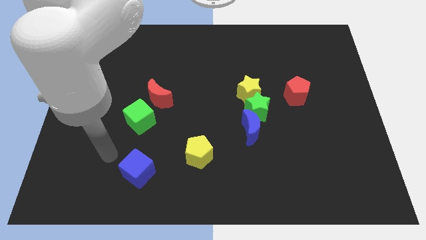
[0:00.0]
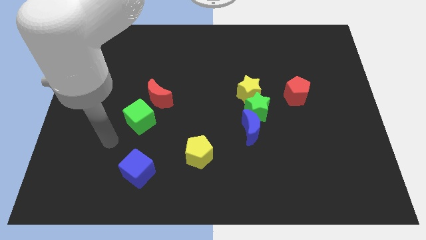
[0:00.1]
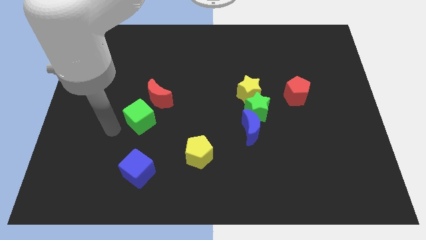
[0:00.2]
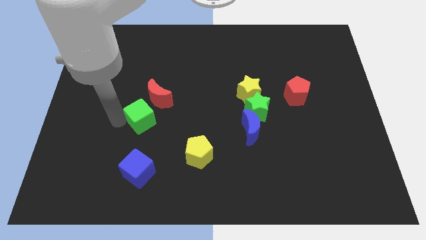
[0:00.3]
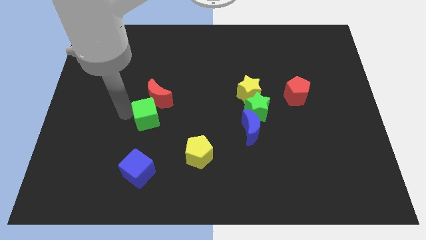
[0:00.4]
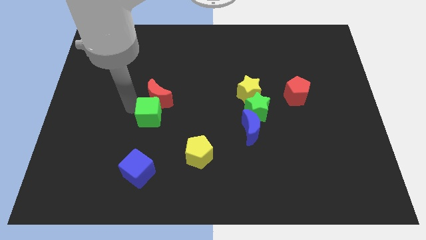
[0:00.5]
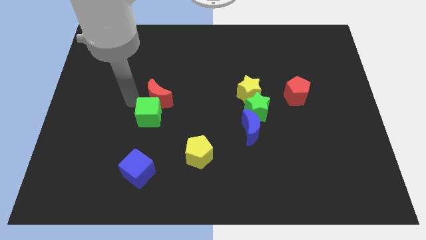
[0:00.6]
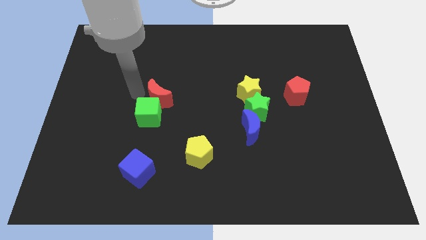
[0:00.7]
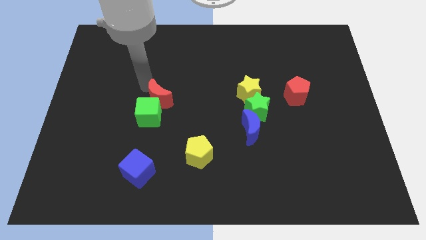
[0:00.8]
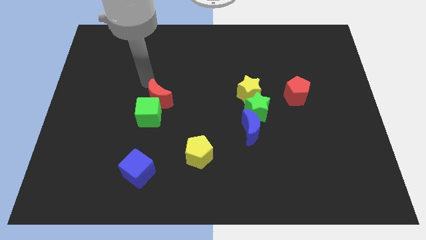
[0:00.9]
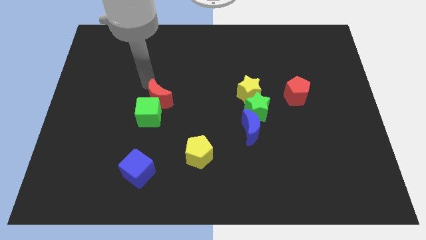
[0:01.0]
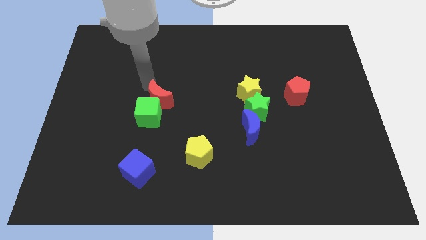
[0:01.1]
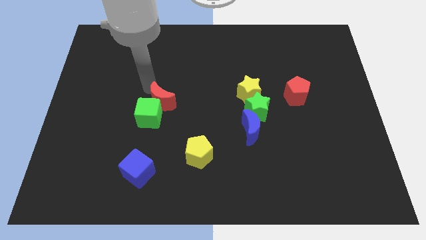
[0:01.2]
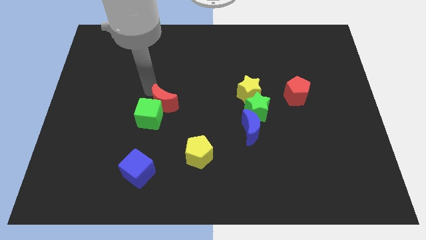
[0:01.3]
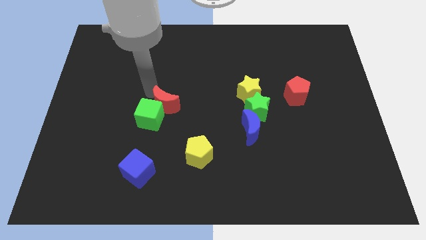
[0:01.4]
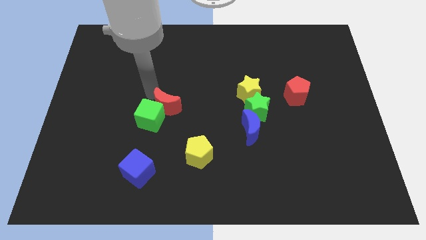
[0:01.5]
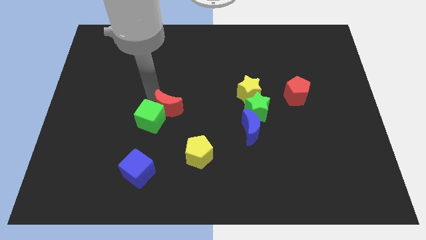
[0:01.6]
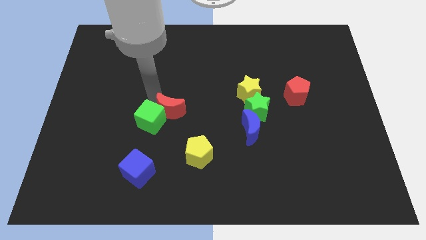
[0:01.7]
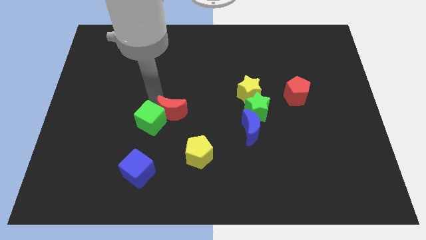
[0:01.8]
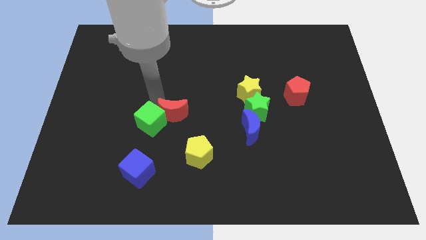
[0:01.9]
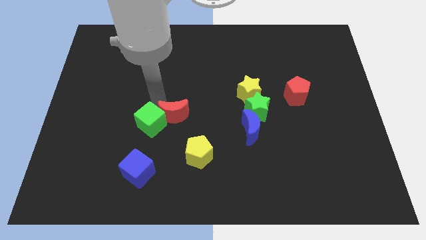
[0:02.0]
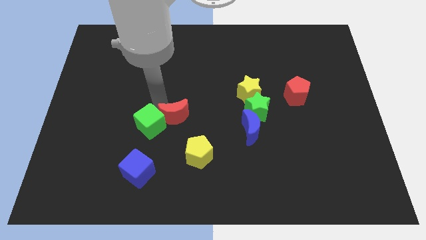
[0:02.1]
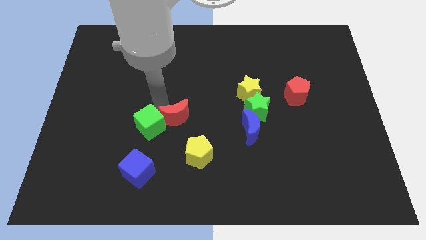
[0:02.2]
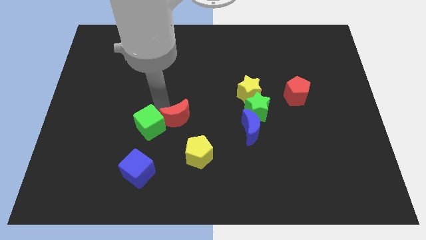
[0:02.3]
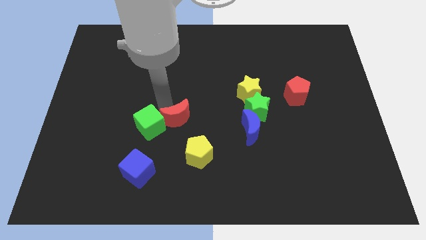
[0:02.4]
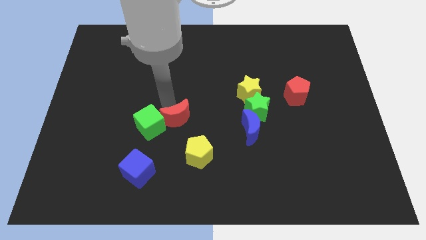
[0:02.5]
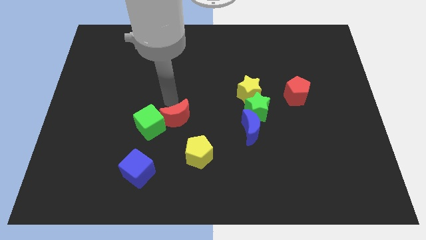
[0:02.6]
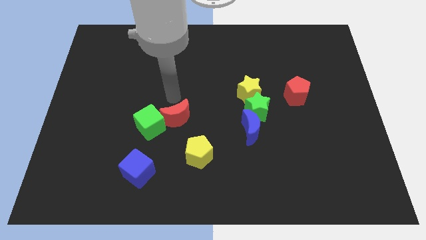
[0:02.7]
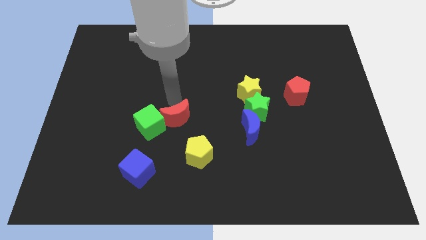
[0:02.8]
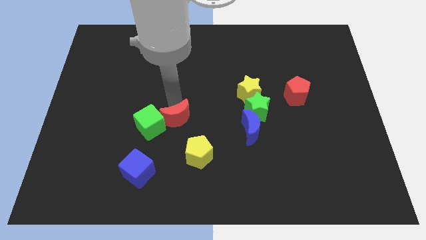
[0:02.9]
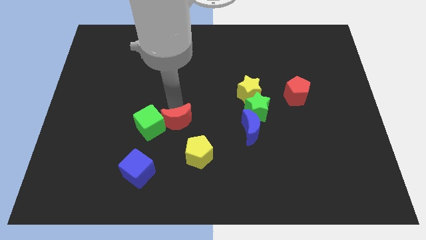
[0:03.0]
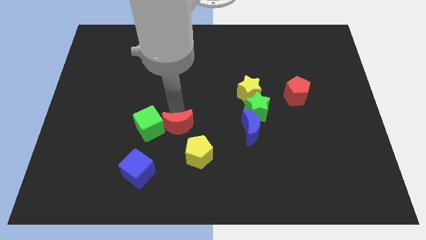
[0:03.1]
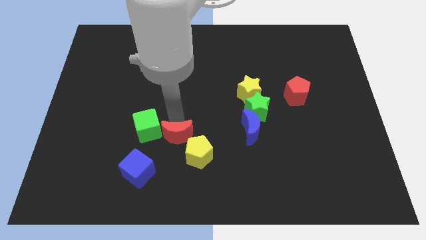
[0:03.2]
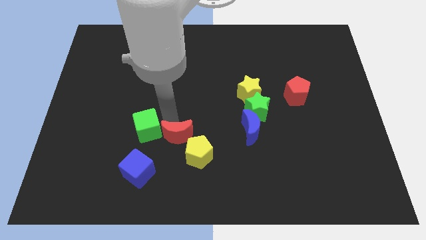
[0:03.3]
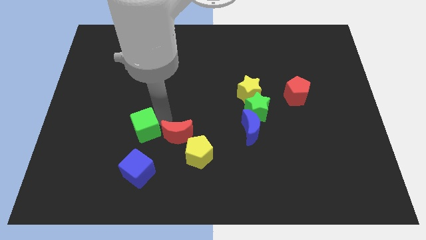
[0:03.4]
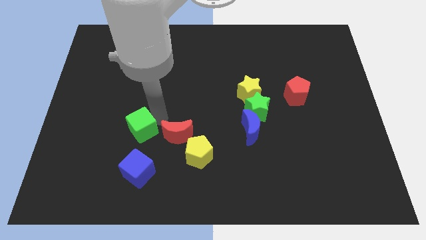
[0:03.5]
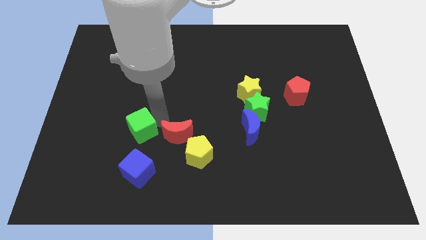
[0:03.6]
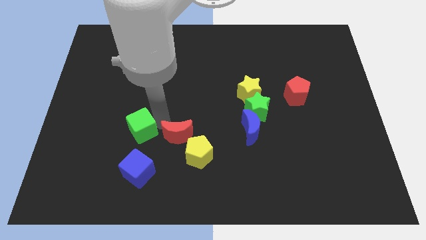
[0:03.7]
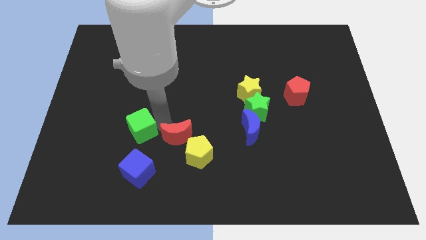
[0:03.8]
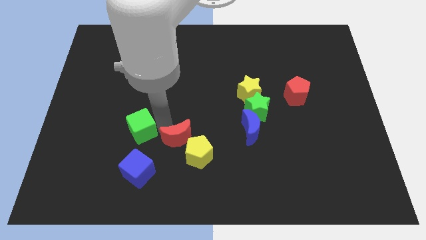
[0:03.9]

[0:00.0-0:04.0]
slide the red moon towards the yellow pentagon

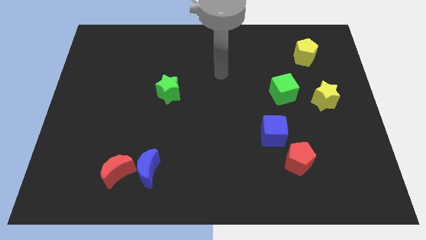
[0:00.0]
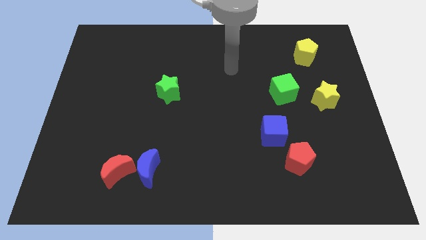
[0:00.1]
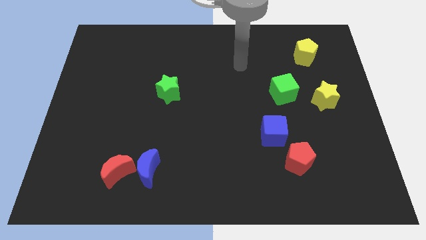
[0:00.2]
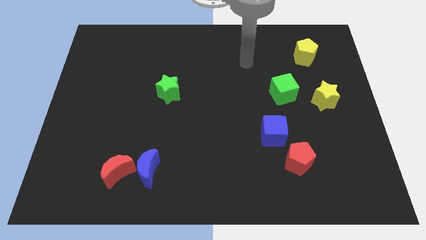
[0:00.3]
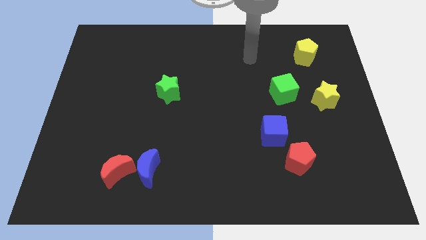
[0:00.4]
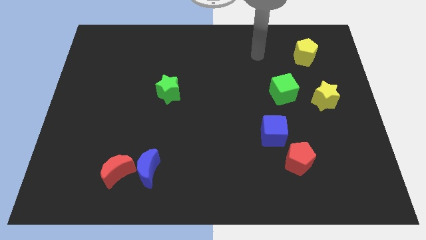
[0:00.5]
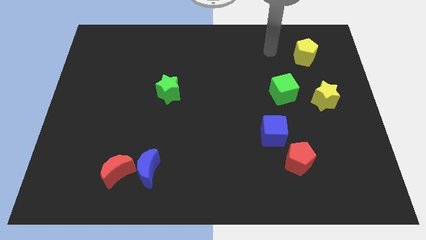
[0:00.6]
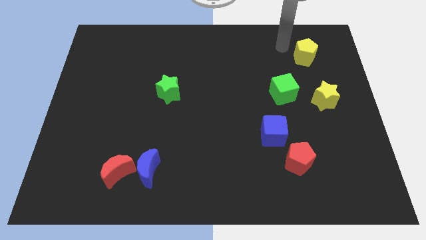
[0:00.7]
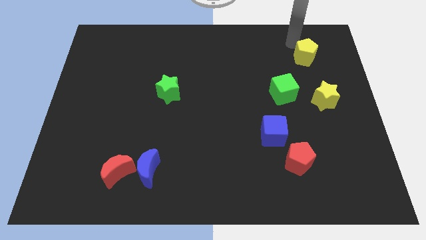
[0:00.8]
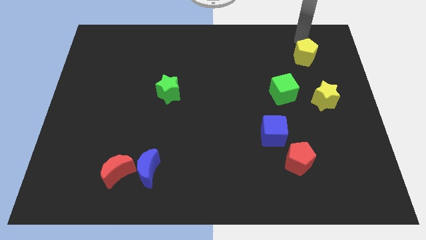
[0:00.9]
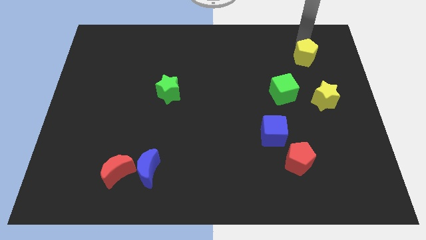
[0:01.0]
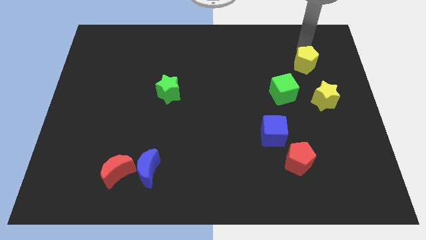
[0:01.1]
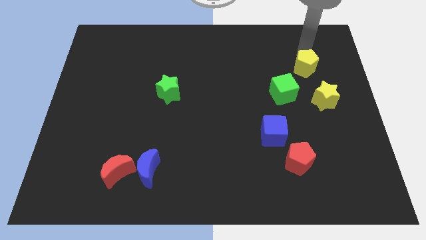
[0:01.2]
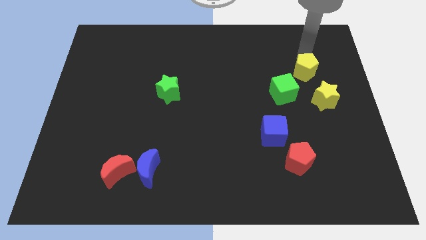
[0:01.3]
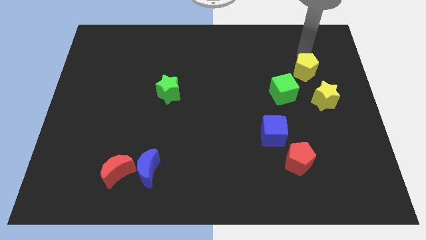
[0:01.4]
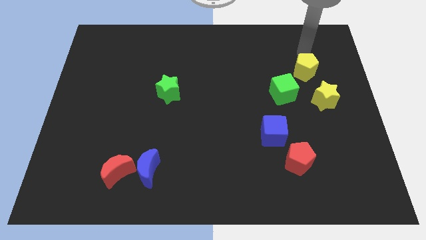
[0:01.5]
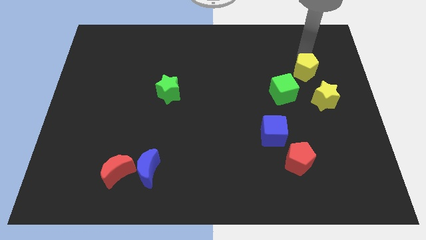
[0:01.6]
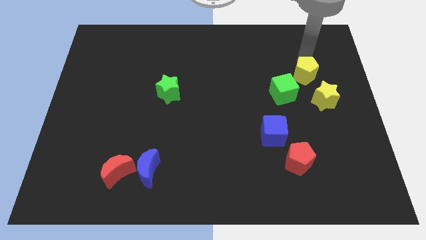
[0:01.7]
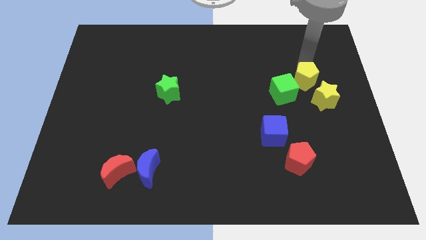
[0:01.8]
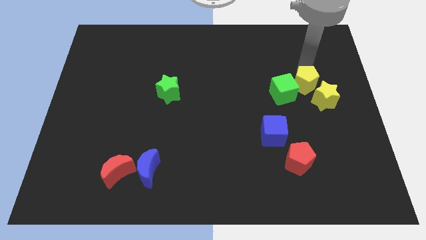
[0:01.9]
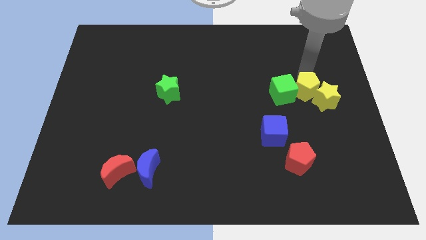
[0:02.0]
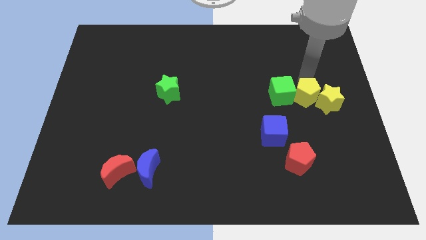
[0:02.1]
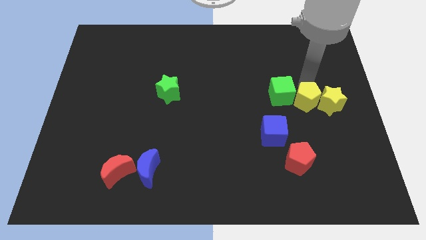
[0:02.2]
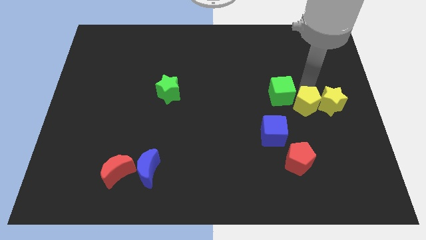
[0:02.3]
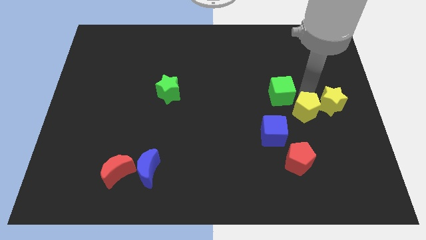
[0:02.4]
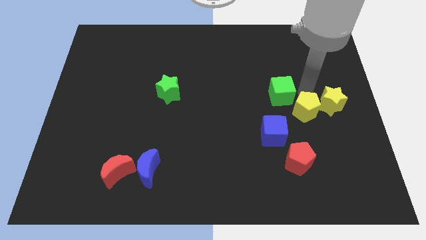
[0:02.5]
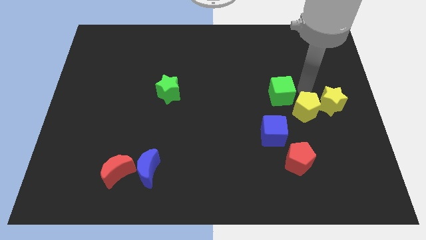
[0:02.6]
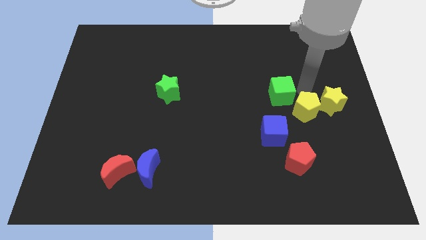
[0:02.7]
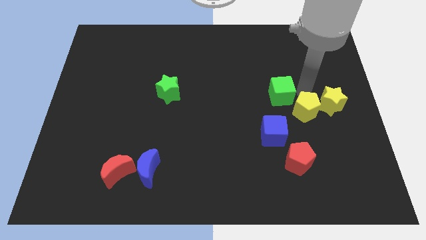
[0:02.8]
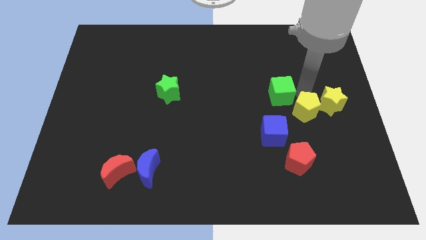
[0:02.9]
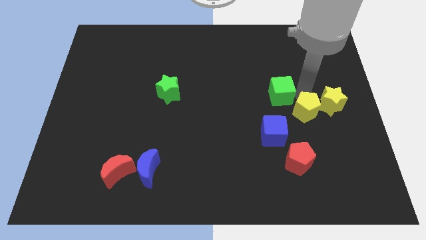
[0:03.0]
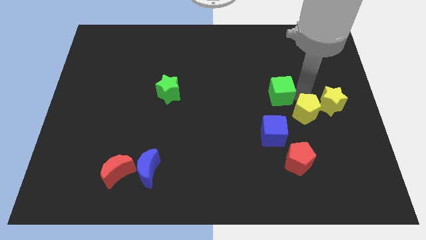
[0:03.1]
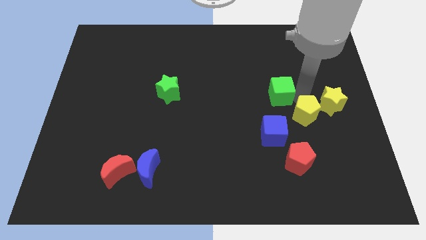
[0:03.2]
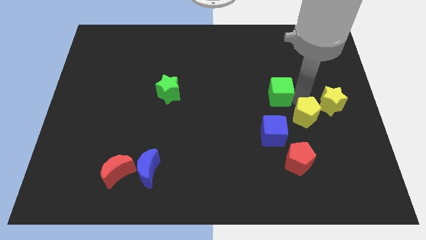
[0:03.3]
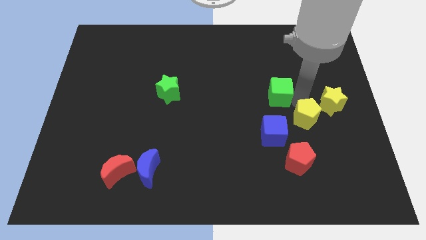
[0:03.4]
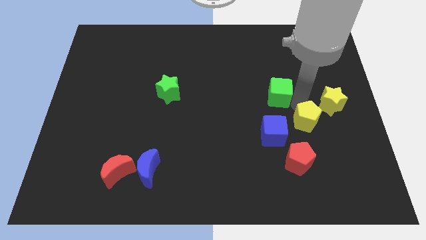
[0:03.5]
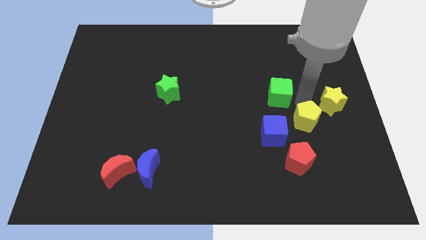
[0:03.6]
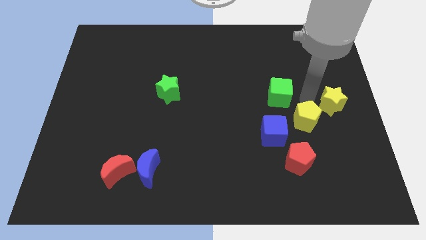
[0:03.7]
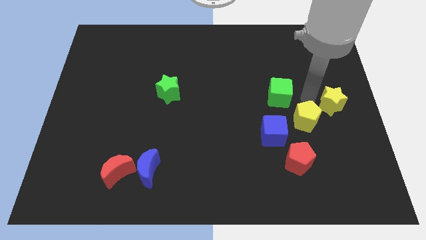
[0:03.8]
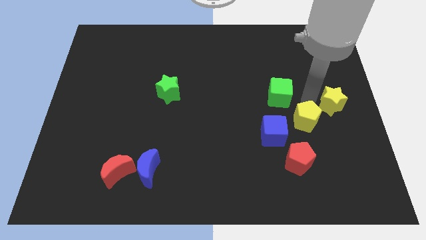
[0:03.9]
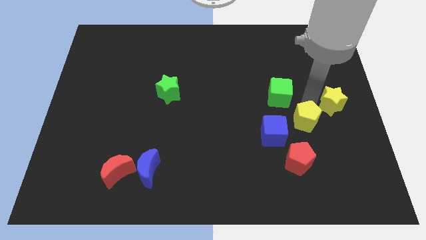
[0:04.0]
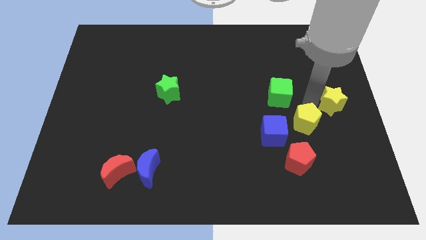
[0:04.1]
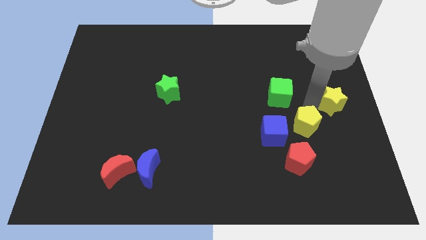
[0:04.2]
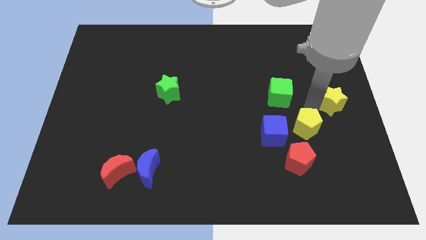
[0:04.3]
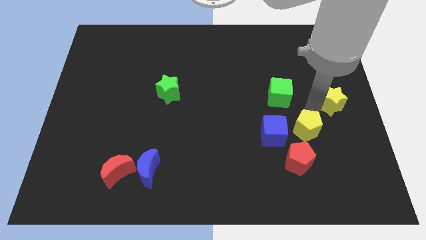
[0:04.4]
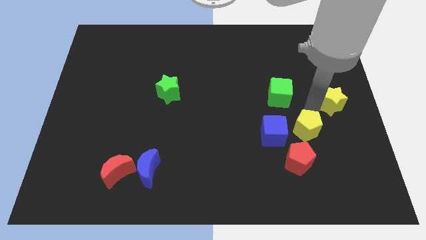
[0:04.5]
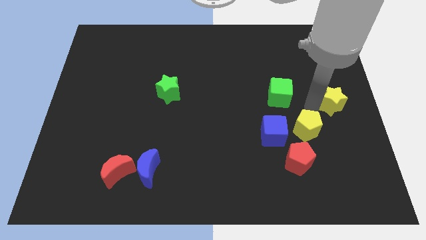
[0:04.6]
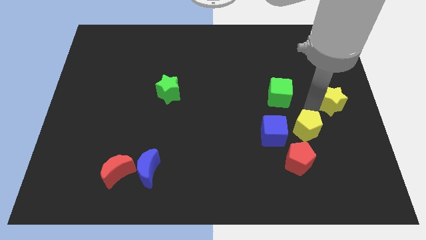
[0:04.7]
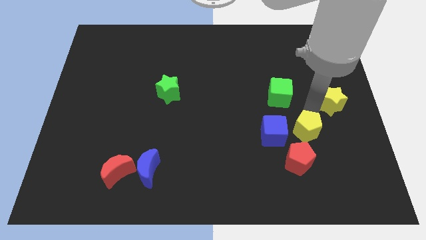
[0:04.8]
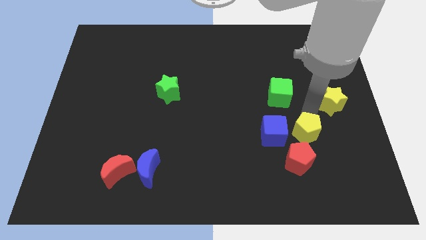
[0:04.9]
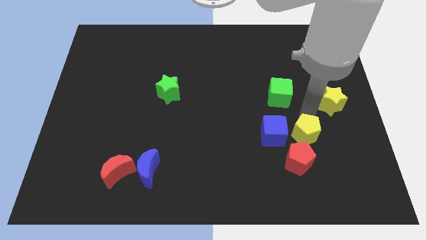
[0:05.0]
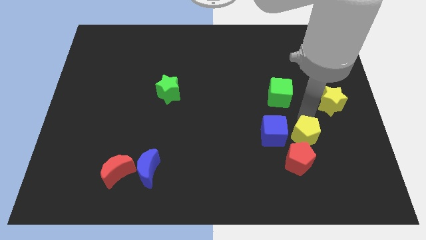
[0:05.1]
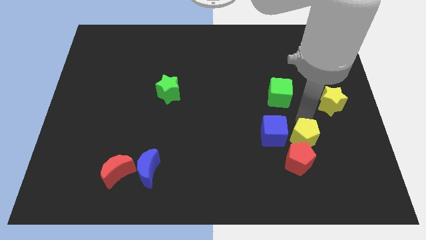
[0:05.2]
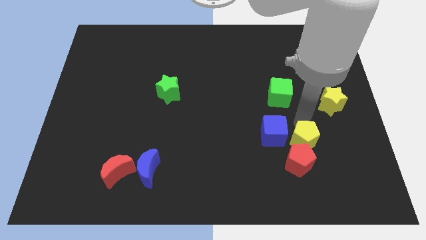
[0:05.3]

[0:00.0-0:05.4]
slide the yellow pentagon to the red pentagon
